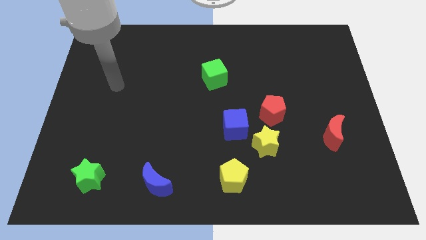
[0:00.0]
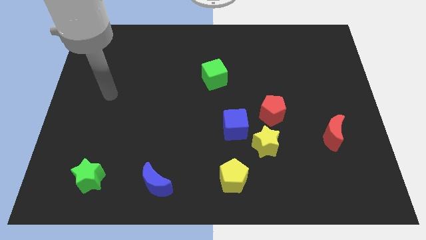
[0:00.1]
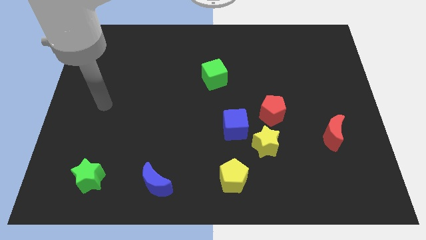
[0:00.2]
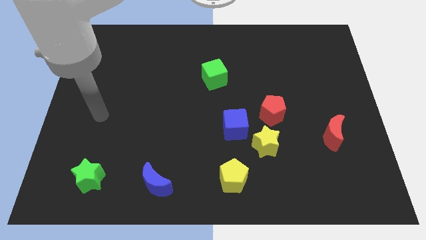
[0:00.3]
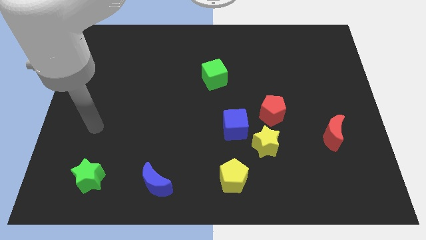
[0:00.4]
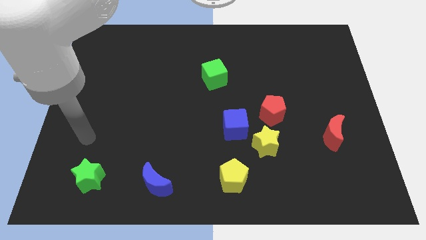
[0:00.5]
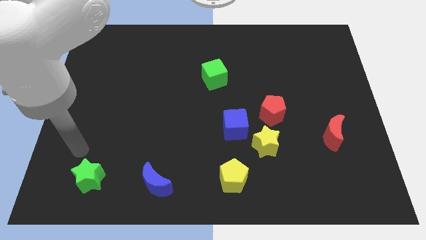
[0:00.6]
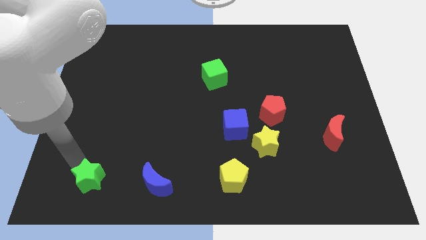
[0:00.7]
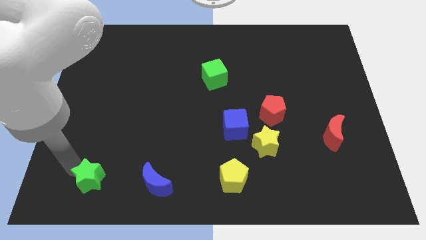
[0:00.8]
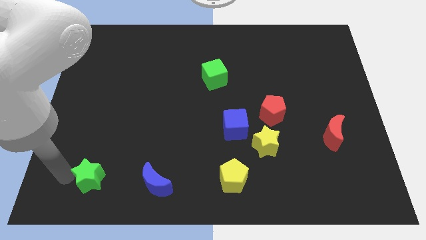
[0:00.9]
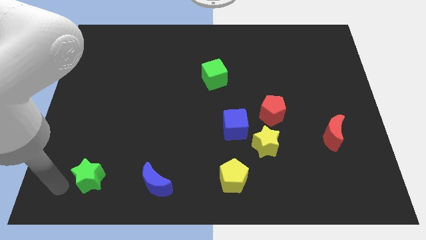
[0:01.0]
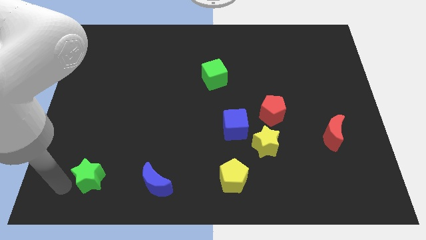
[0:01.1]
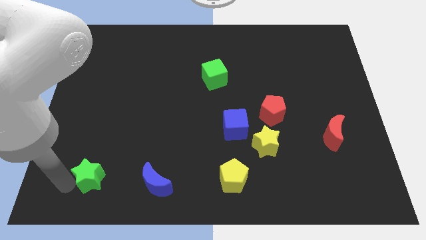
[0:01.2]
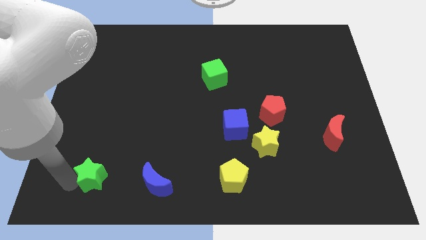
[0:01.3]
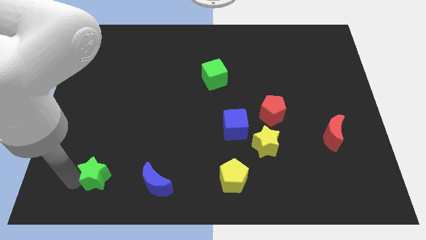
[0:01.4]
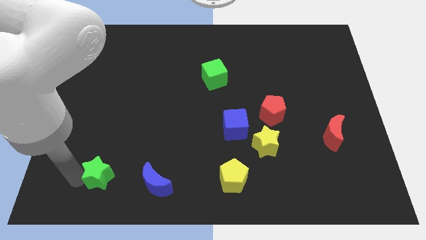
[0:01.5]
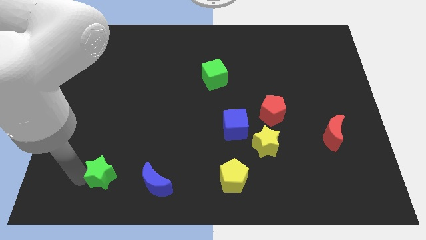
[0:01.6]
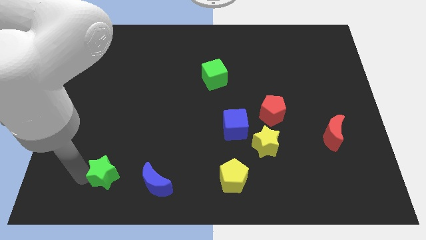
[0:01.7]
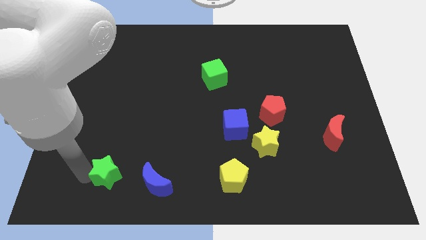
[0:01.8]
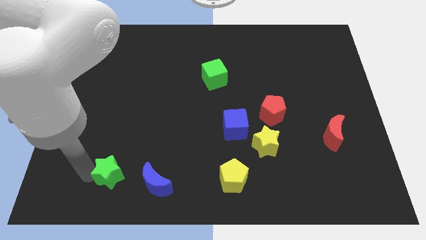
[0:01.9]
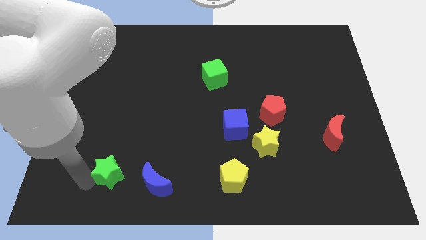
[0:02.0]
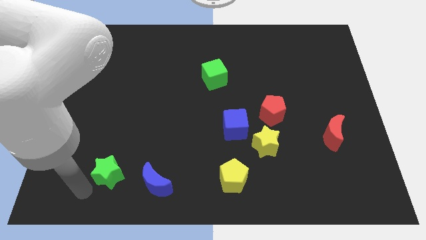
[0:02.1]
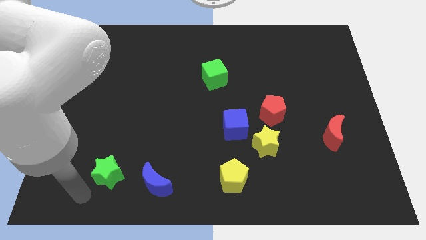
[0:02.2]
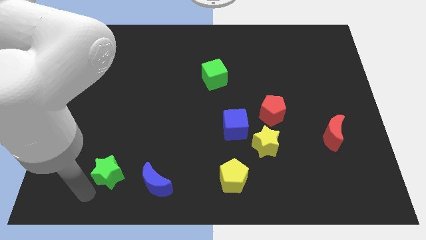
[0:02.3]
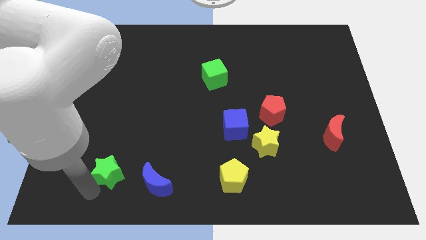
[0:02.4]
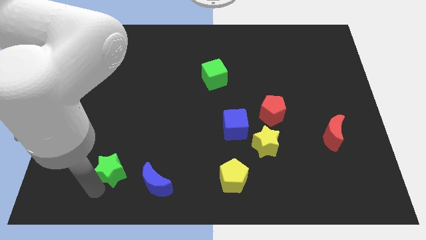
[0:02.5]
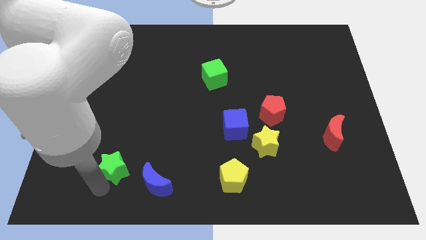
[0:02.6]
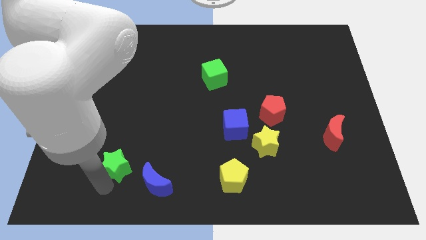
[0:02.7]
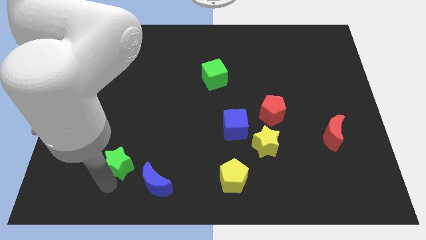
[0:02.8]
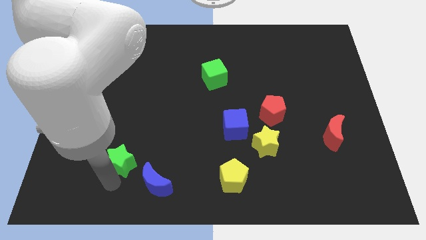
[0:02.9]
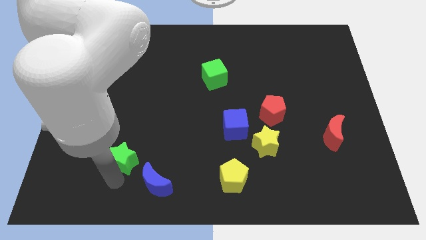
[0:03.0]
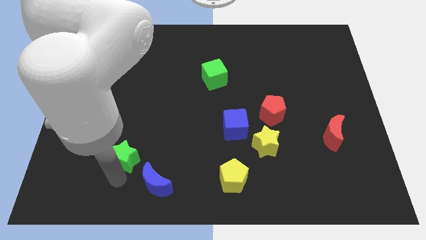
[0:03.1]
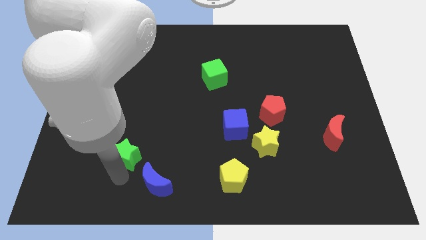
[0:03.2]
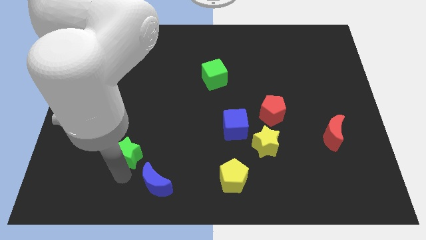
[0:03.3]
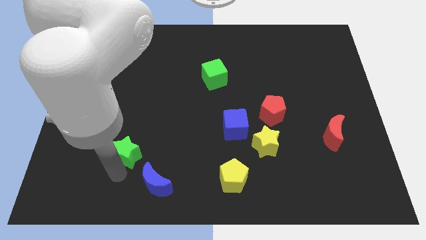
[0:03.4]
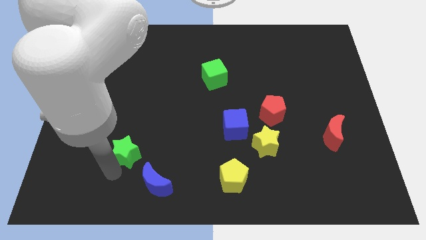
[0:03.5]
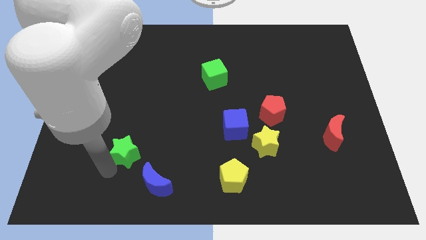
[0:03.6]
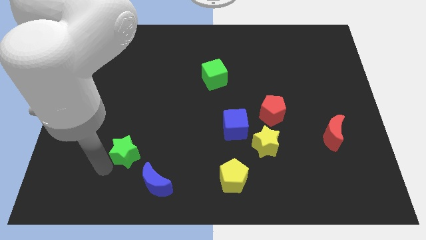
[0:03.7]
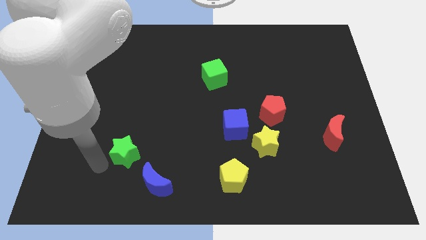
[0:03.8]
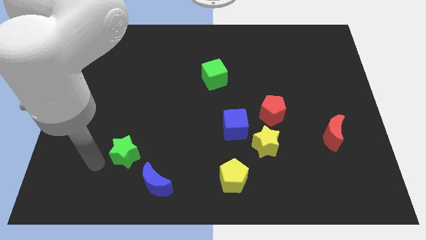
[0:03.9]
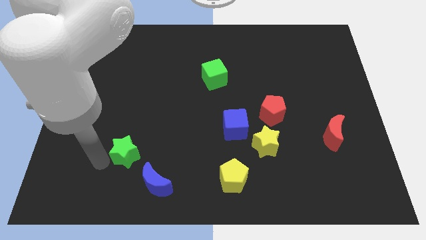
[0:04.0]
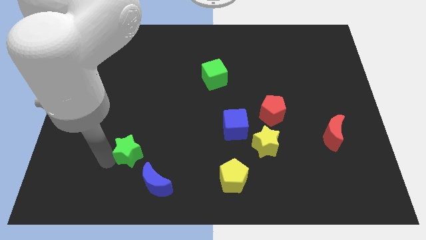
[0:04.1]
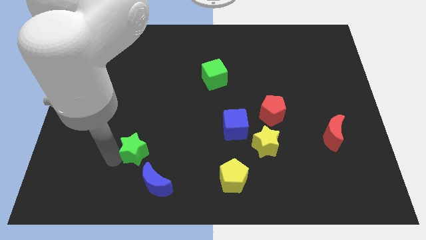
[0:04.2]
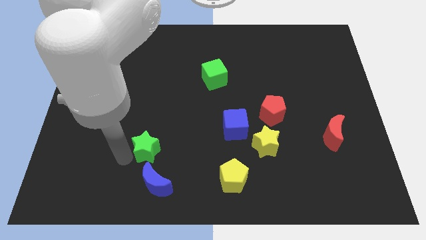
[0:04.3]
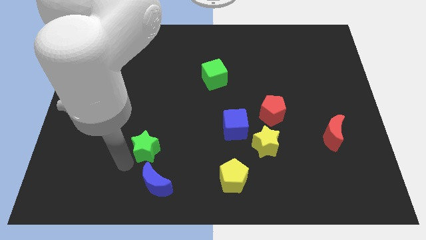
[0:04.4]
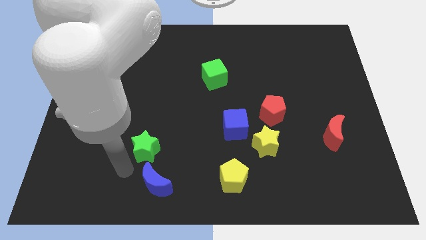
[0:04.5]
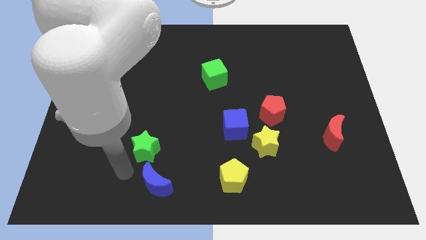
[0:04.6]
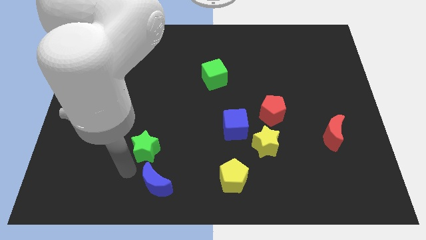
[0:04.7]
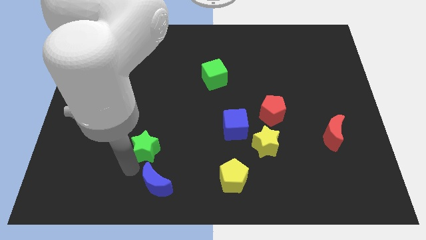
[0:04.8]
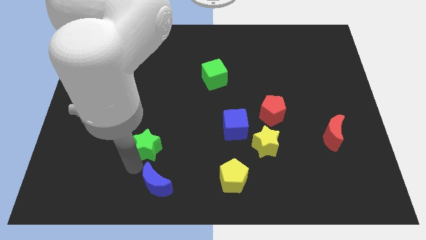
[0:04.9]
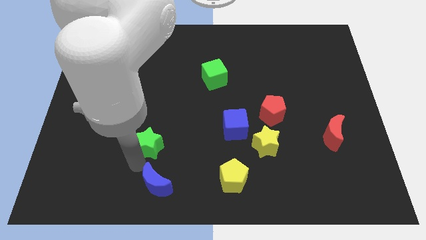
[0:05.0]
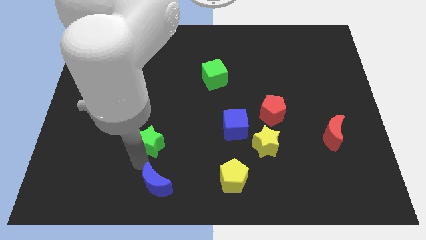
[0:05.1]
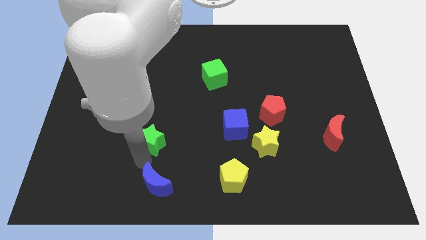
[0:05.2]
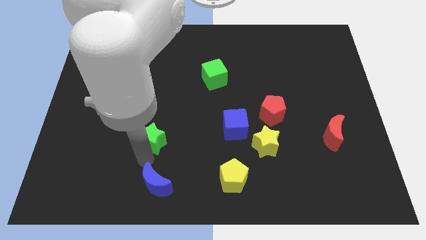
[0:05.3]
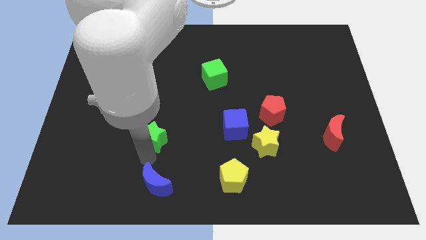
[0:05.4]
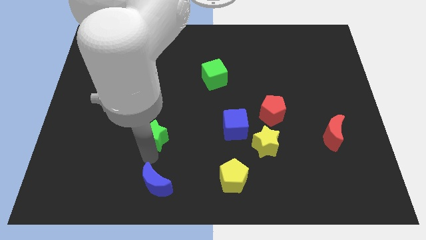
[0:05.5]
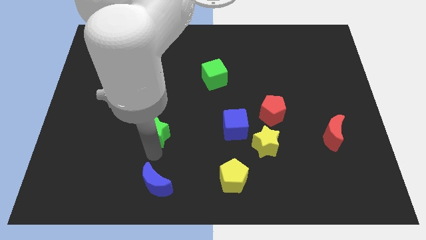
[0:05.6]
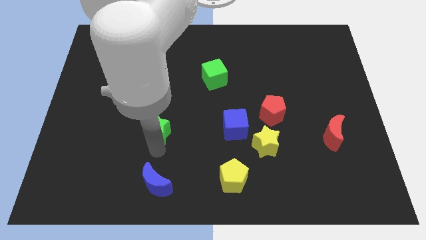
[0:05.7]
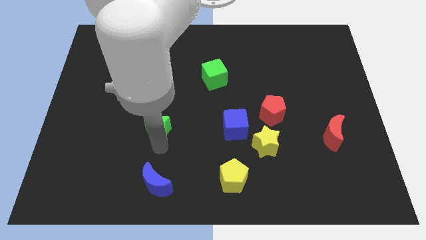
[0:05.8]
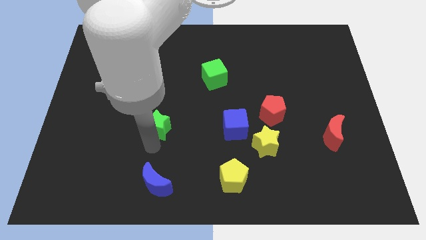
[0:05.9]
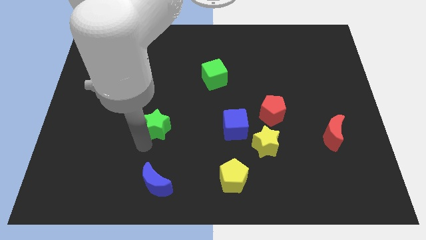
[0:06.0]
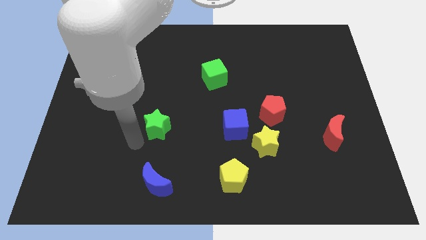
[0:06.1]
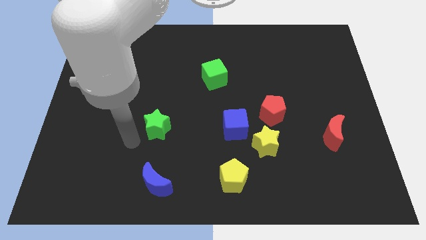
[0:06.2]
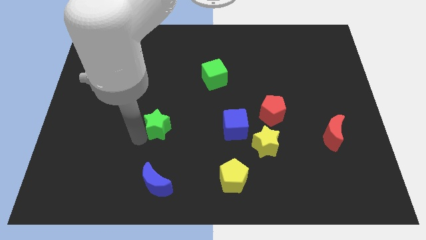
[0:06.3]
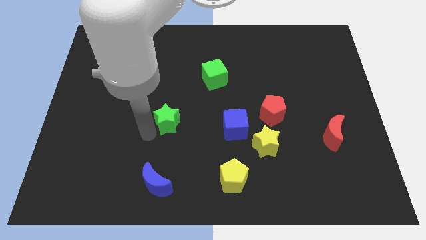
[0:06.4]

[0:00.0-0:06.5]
push the green star up and then right

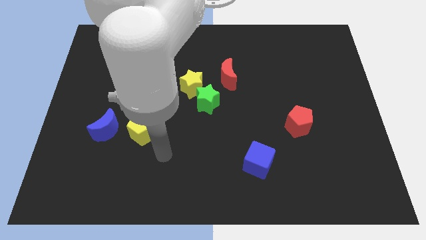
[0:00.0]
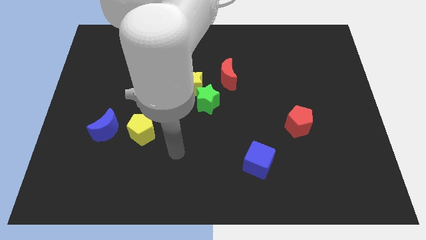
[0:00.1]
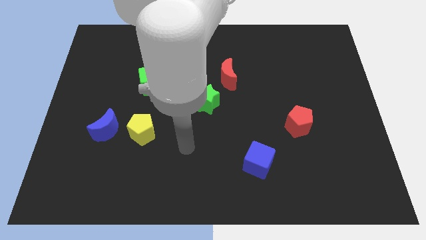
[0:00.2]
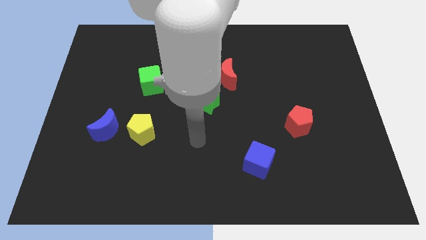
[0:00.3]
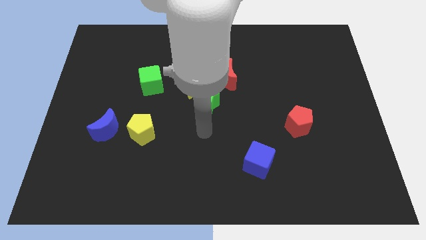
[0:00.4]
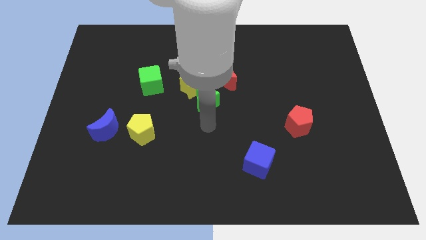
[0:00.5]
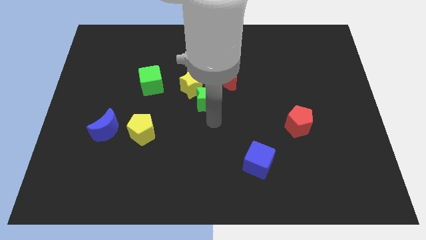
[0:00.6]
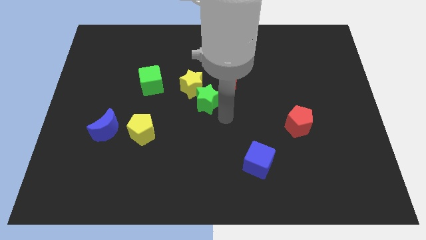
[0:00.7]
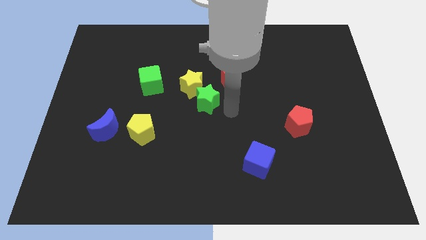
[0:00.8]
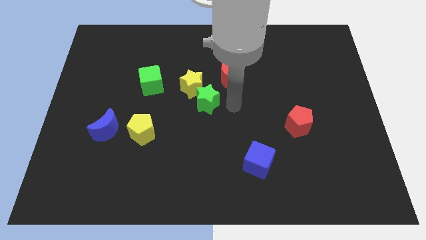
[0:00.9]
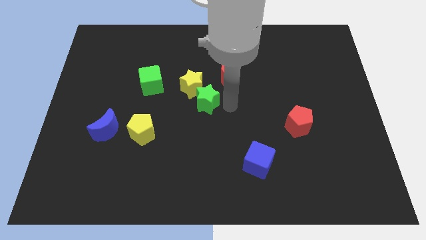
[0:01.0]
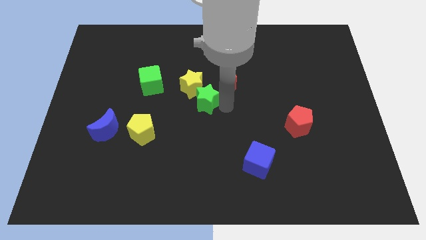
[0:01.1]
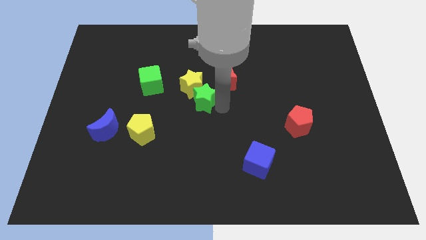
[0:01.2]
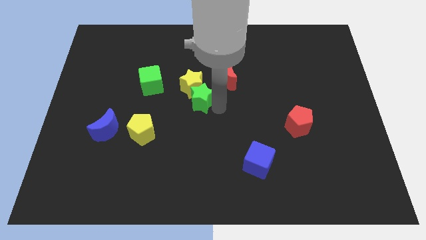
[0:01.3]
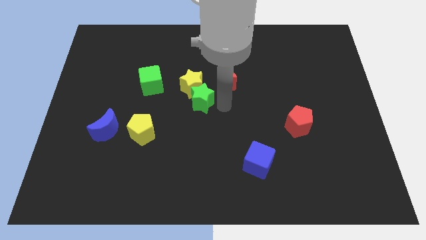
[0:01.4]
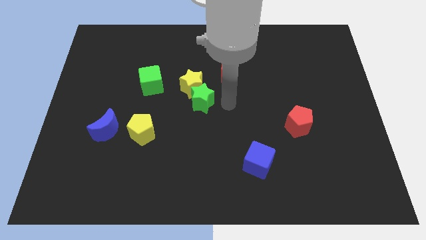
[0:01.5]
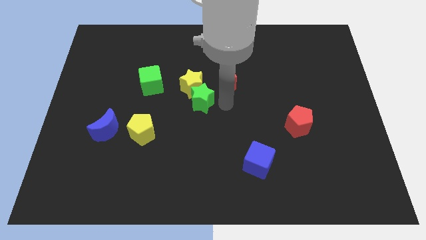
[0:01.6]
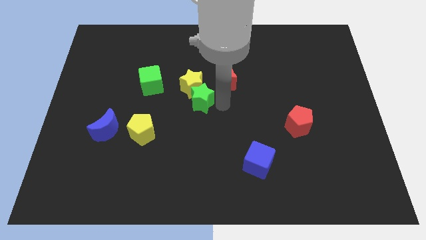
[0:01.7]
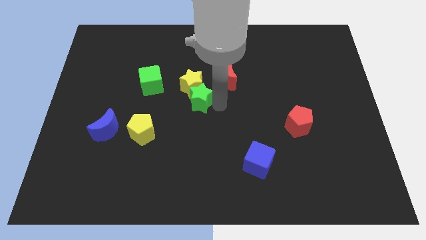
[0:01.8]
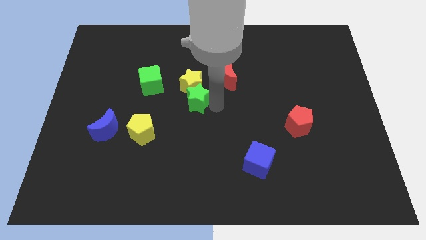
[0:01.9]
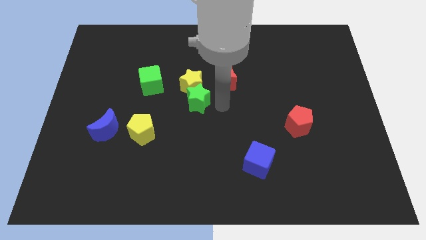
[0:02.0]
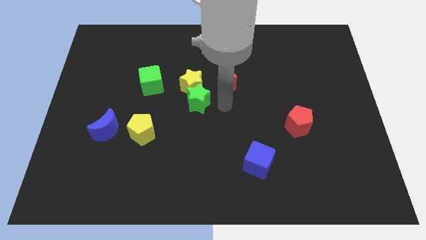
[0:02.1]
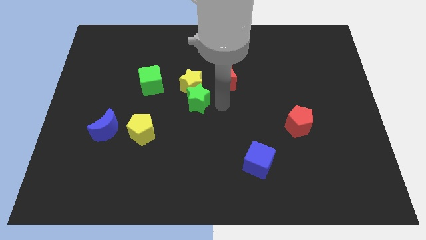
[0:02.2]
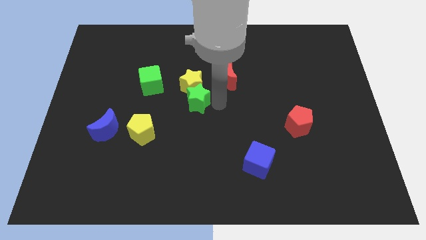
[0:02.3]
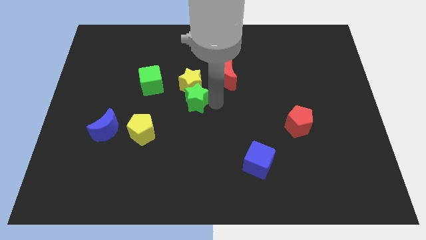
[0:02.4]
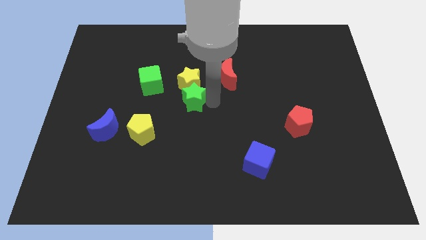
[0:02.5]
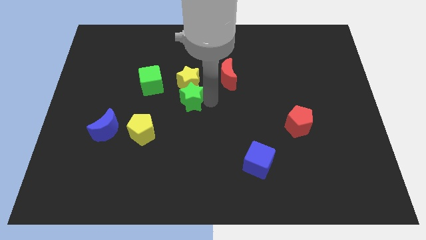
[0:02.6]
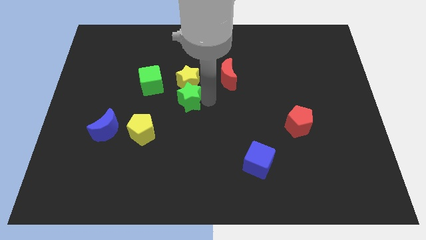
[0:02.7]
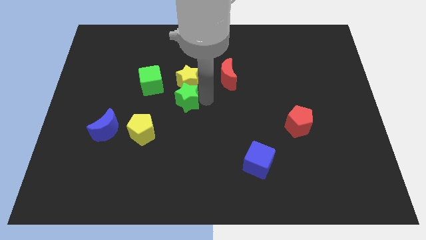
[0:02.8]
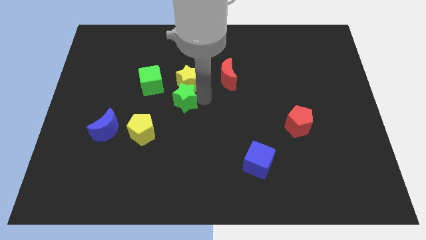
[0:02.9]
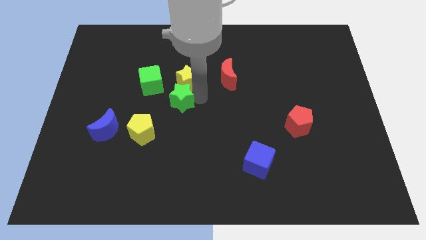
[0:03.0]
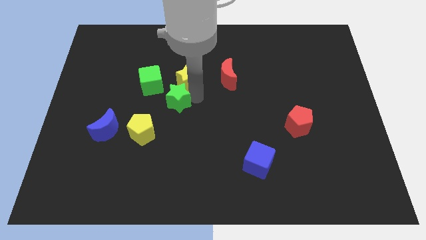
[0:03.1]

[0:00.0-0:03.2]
move the green star left a bit
